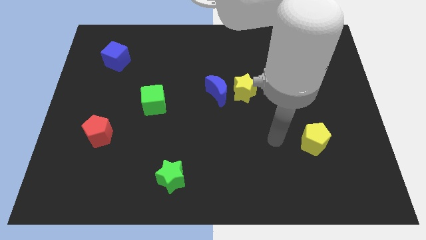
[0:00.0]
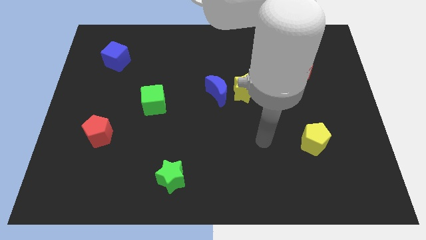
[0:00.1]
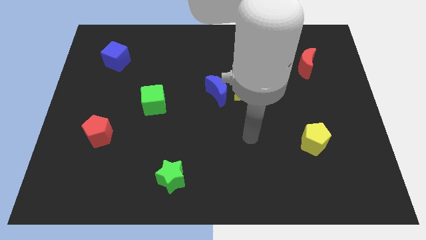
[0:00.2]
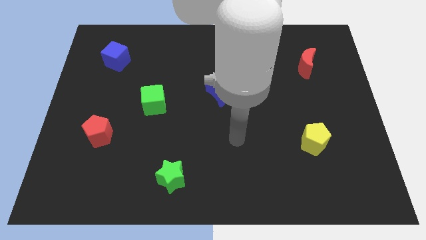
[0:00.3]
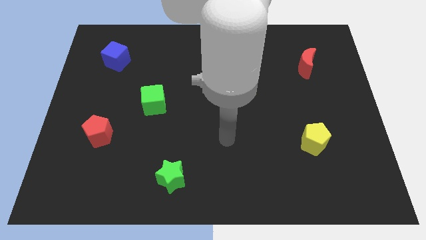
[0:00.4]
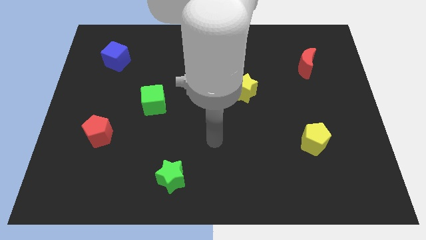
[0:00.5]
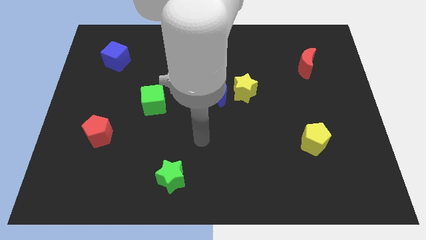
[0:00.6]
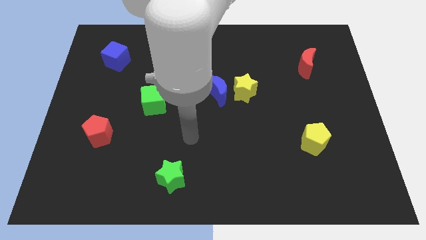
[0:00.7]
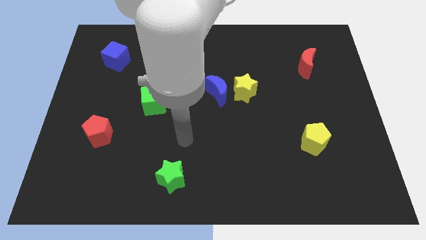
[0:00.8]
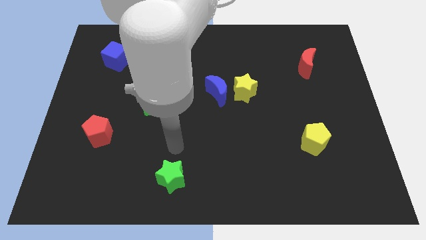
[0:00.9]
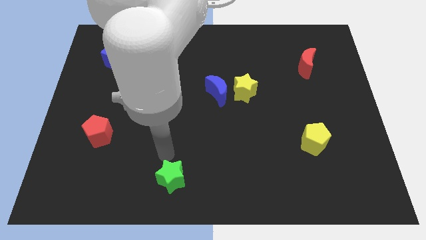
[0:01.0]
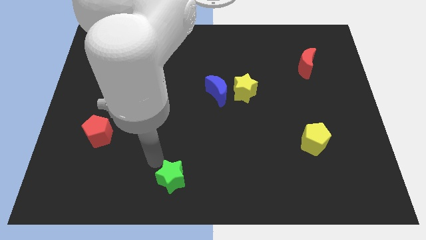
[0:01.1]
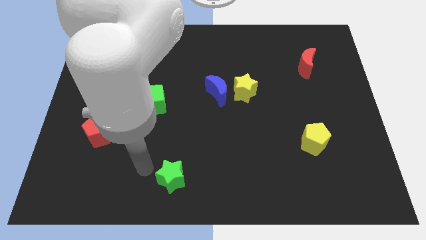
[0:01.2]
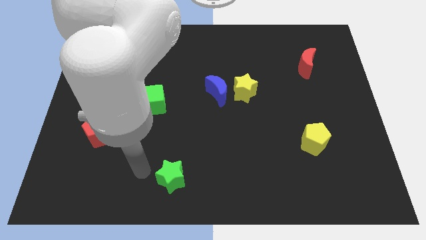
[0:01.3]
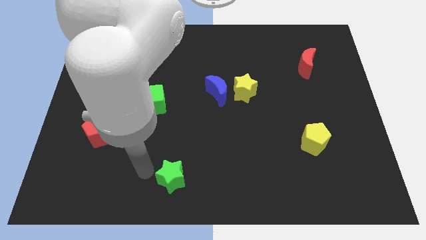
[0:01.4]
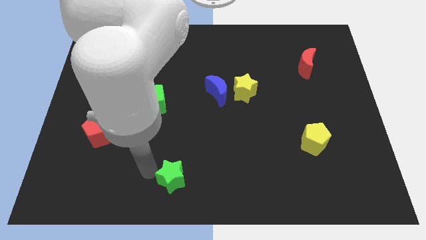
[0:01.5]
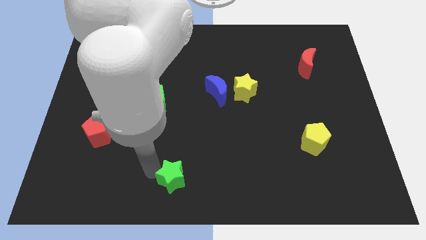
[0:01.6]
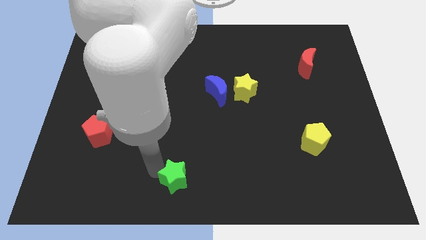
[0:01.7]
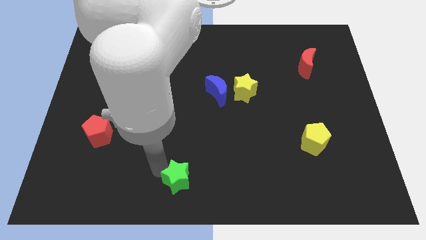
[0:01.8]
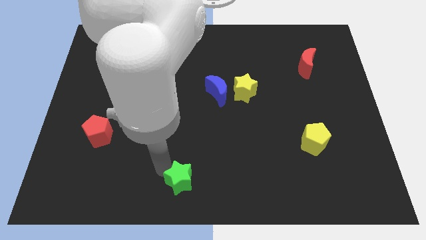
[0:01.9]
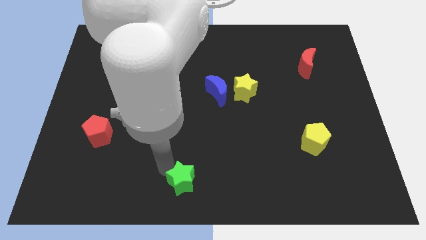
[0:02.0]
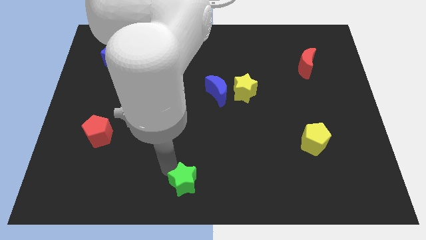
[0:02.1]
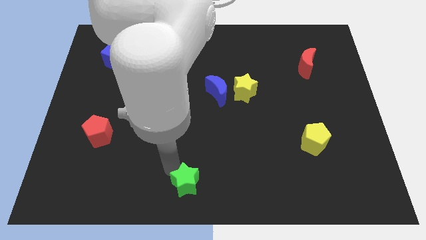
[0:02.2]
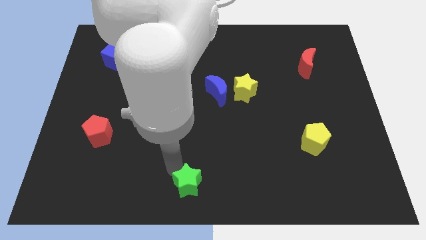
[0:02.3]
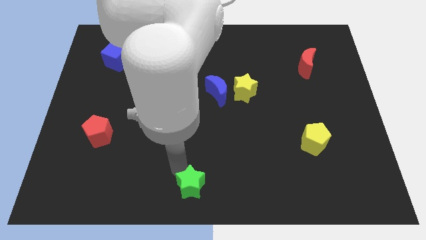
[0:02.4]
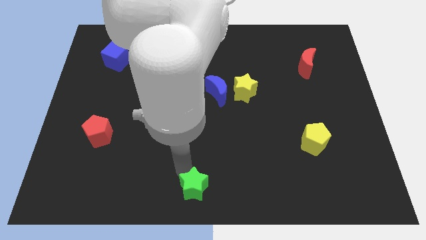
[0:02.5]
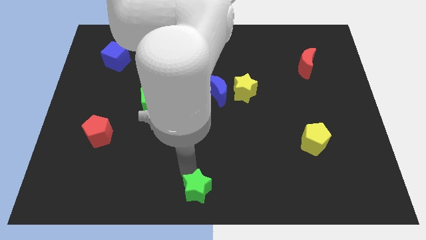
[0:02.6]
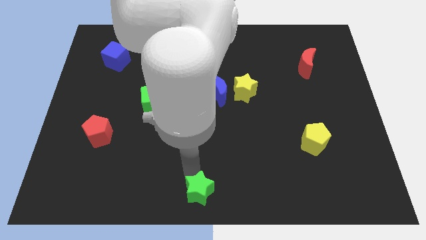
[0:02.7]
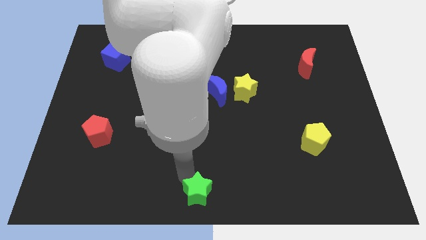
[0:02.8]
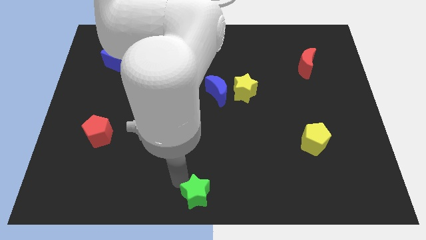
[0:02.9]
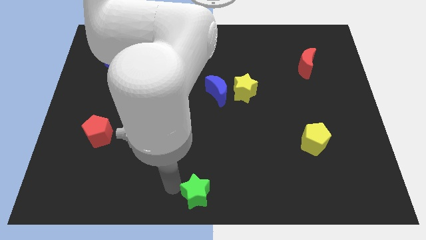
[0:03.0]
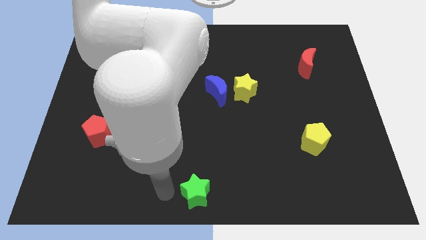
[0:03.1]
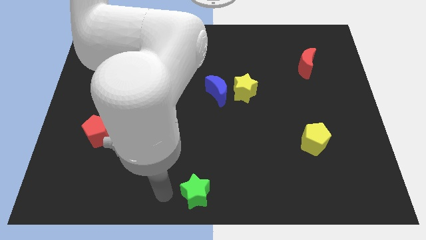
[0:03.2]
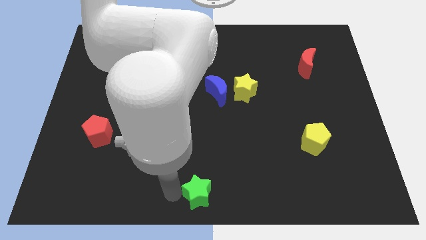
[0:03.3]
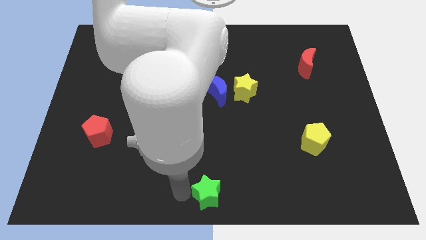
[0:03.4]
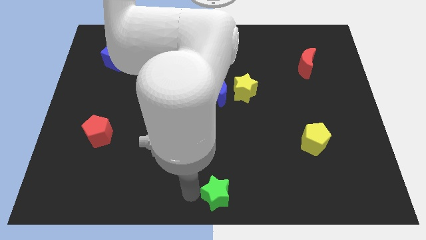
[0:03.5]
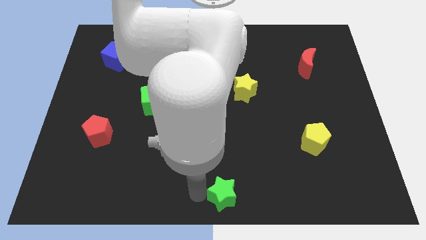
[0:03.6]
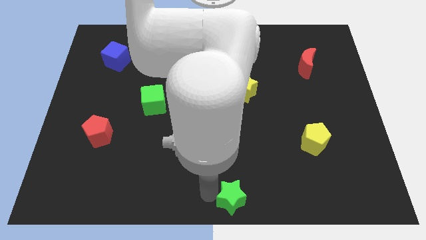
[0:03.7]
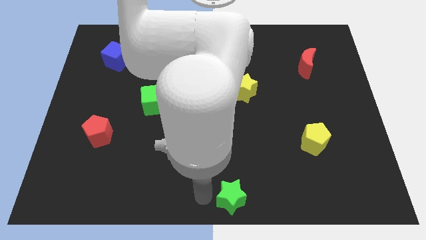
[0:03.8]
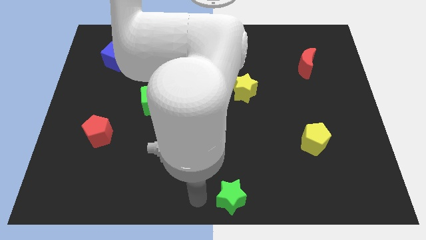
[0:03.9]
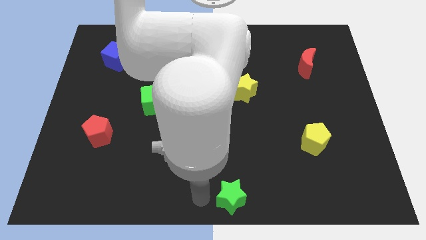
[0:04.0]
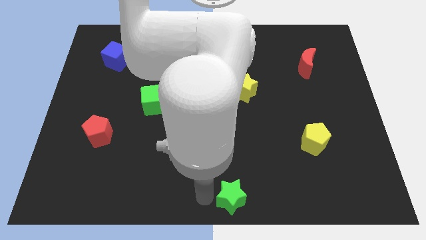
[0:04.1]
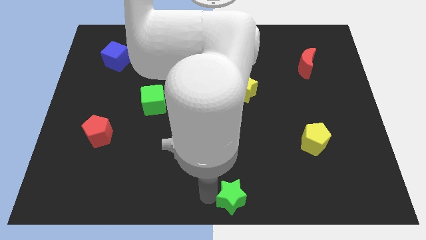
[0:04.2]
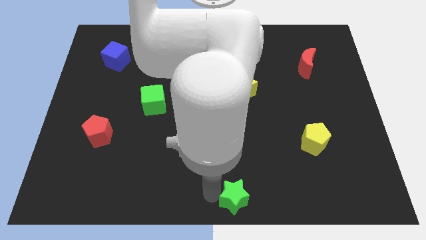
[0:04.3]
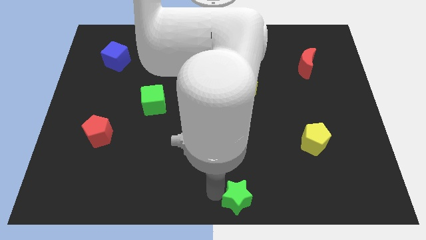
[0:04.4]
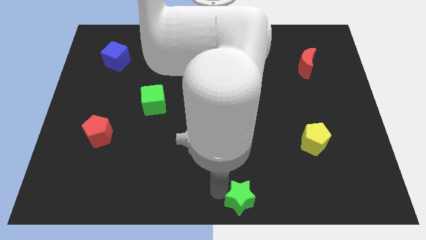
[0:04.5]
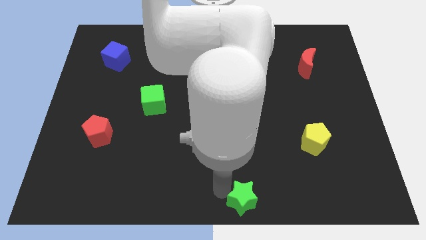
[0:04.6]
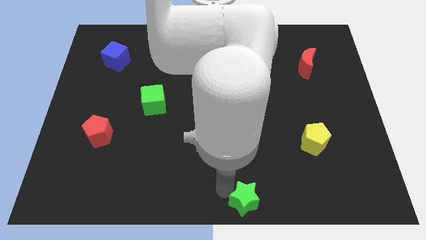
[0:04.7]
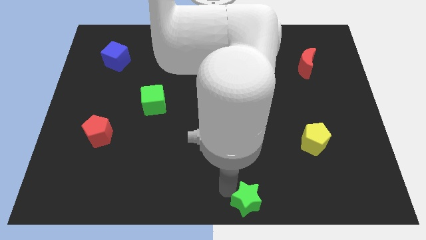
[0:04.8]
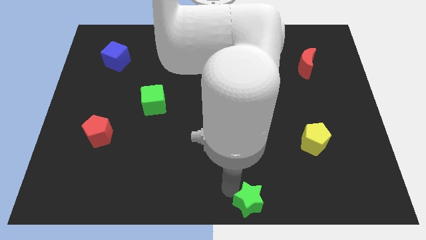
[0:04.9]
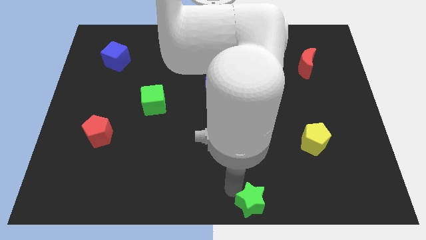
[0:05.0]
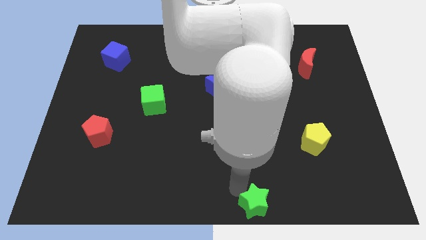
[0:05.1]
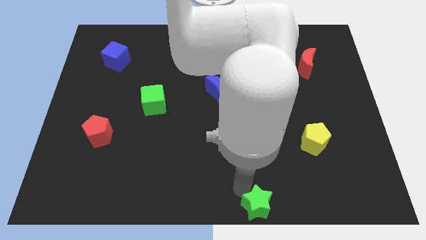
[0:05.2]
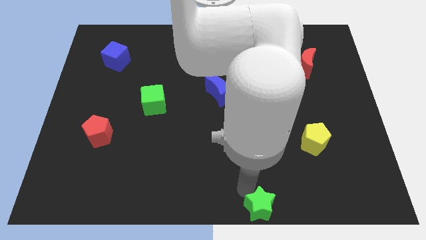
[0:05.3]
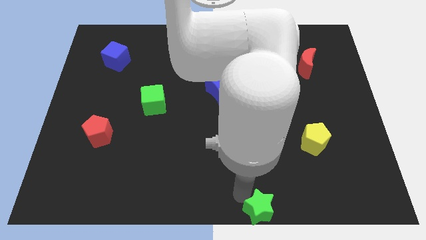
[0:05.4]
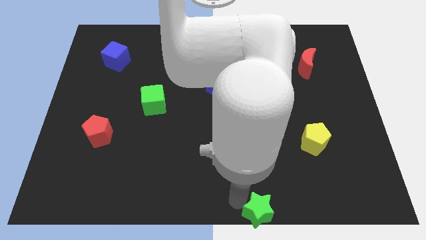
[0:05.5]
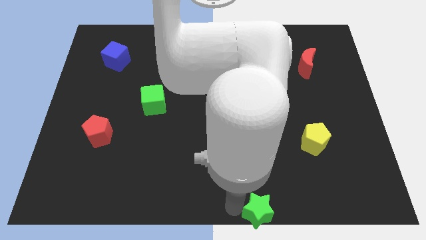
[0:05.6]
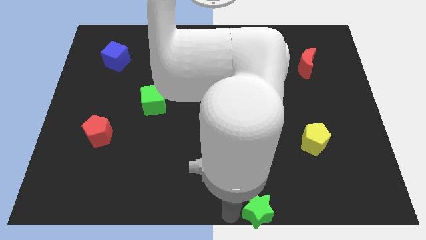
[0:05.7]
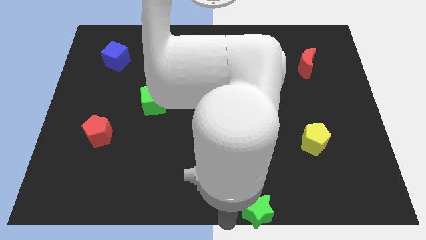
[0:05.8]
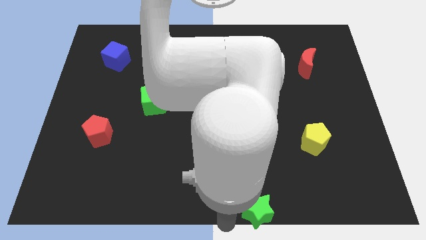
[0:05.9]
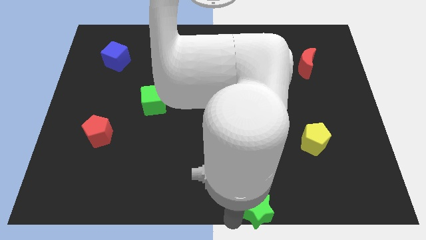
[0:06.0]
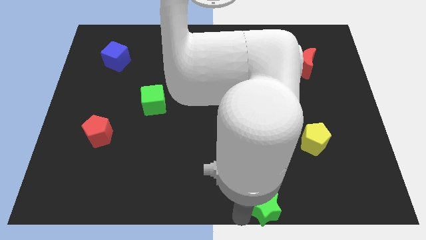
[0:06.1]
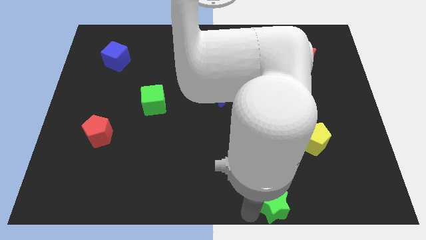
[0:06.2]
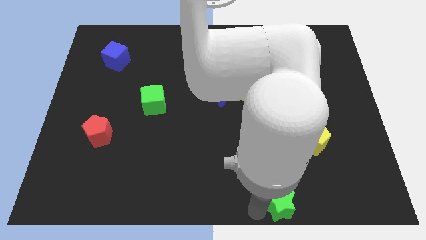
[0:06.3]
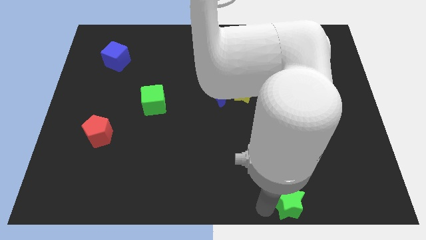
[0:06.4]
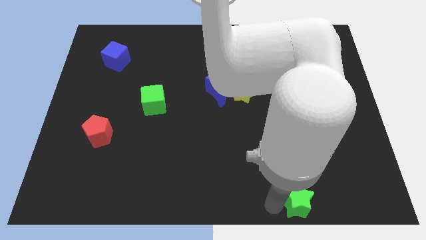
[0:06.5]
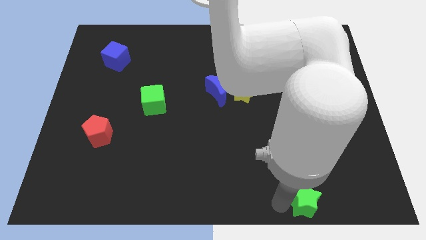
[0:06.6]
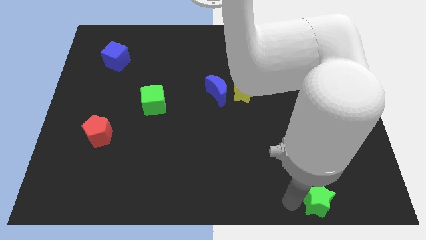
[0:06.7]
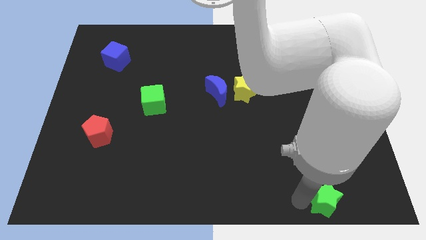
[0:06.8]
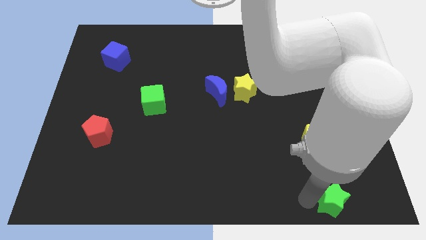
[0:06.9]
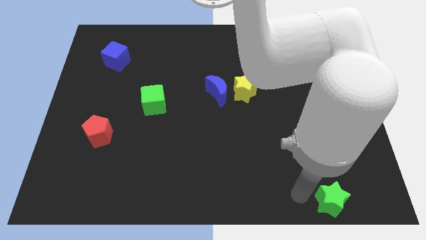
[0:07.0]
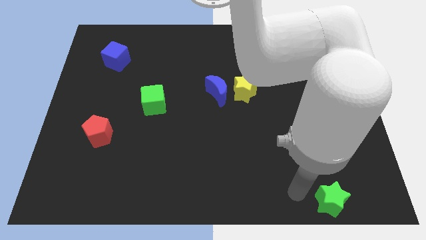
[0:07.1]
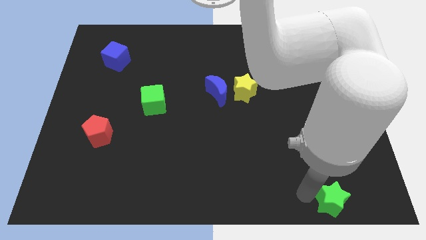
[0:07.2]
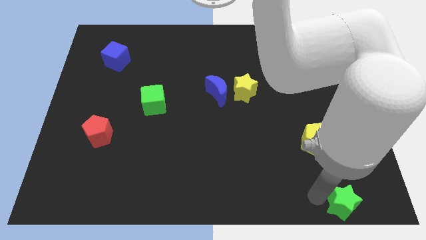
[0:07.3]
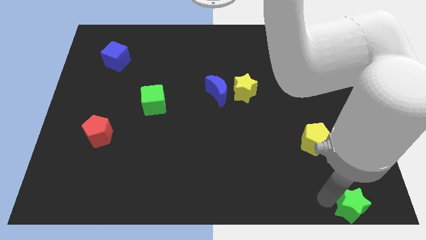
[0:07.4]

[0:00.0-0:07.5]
put the green star to the lower right corner
